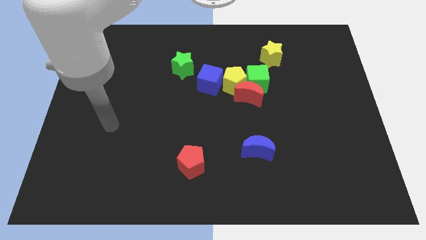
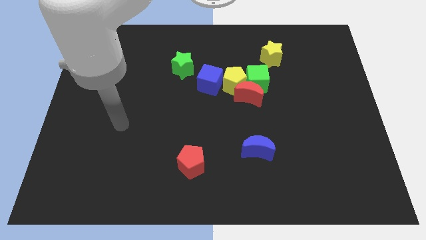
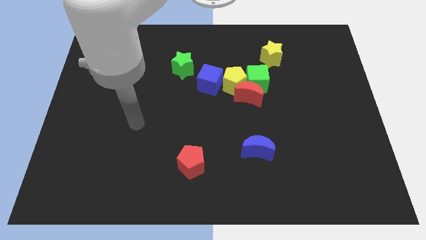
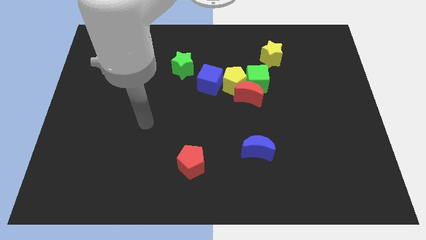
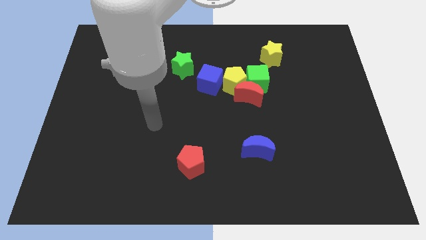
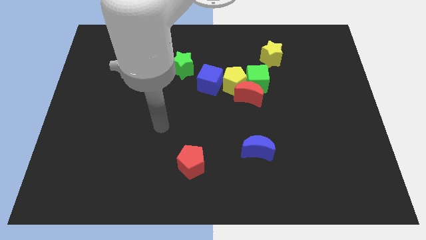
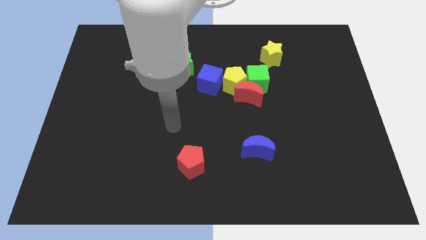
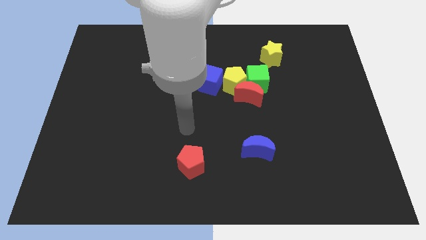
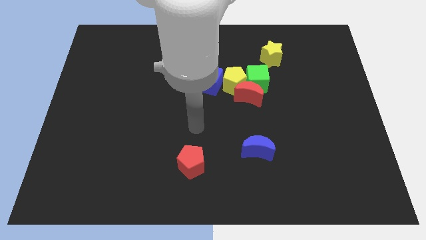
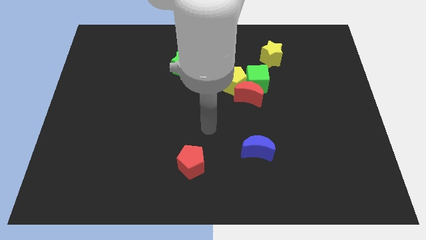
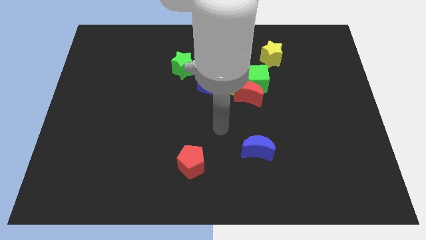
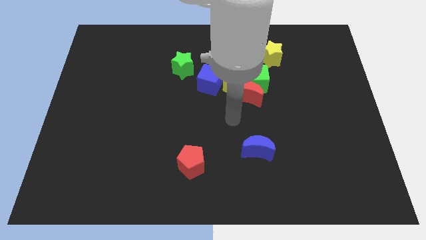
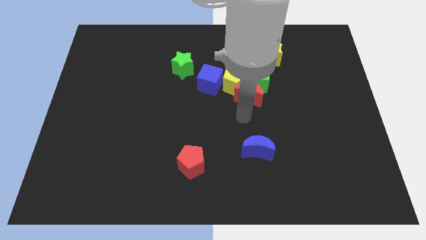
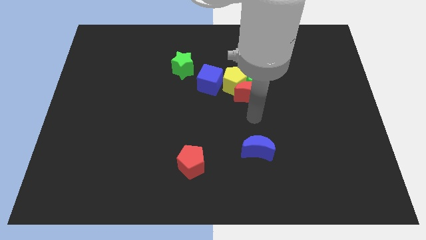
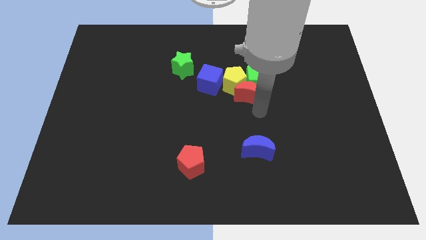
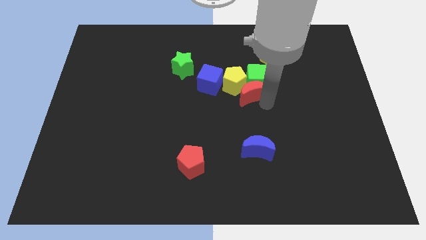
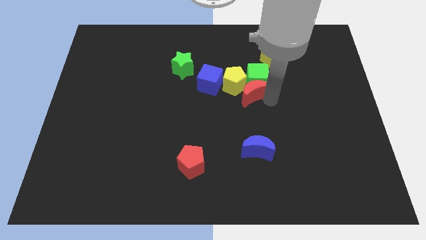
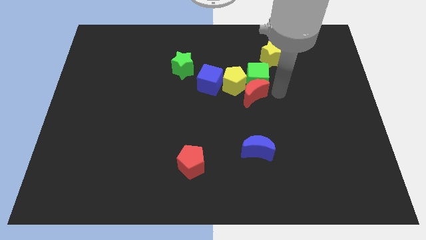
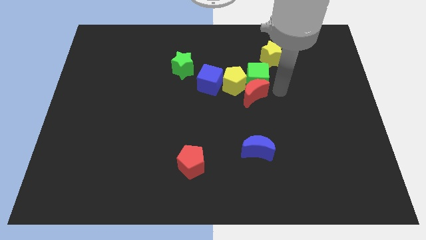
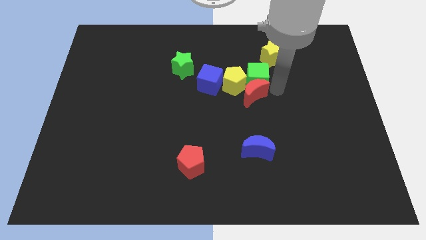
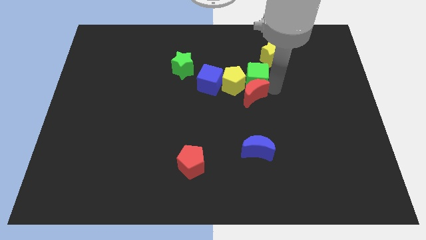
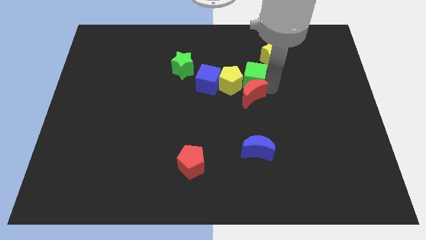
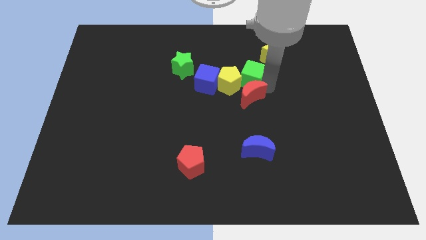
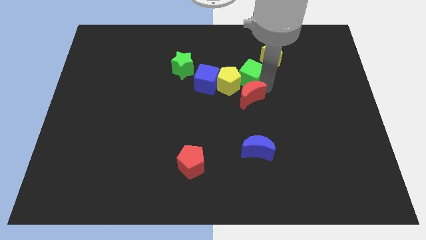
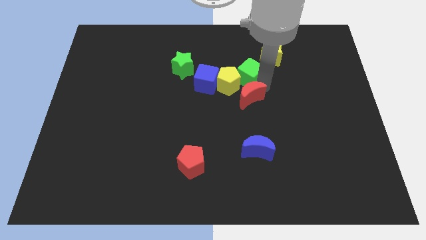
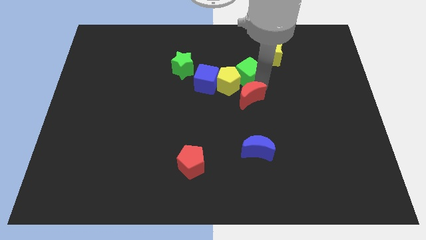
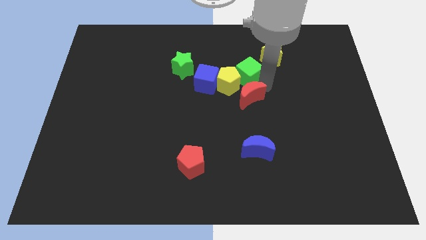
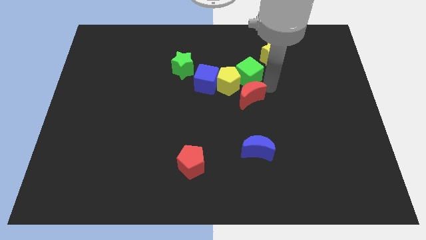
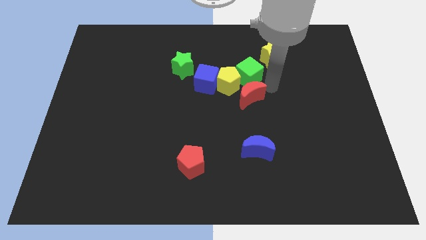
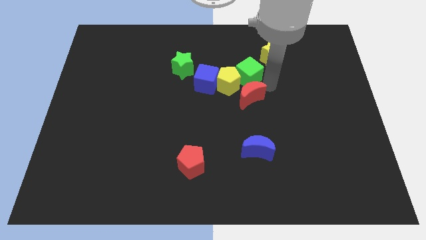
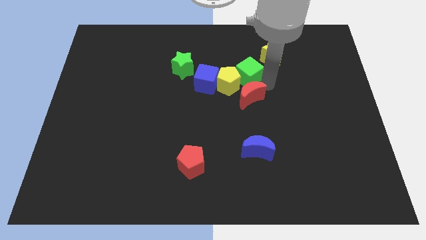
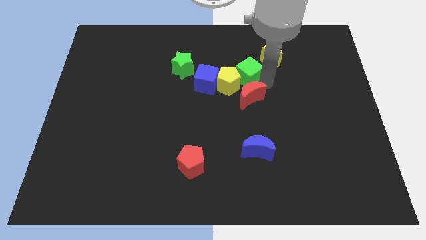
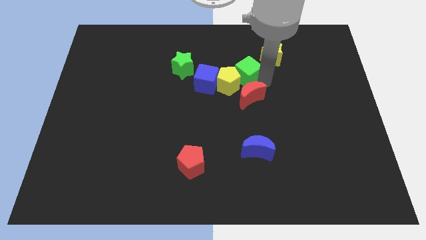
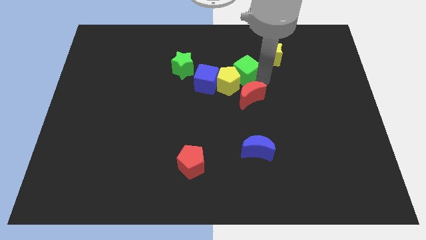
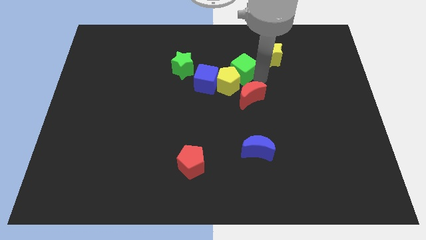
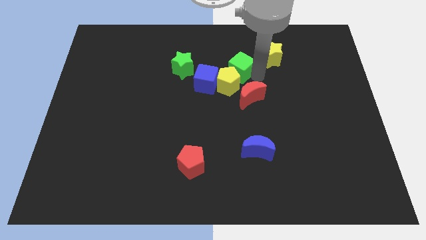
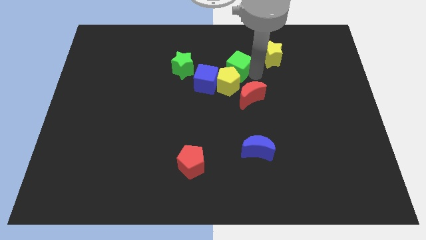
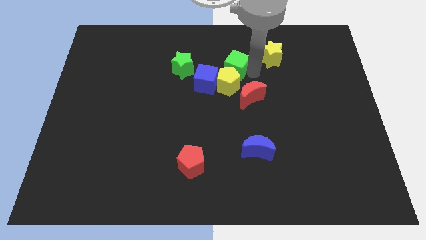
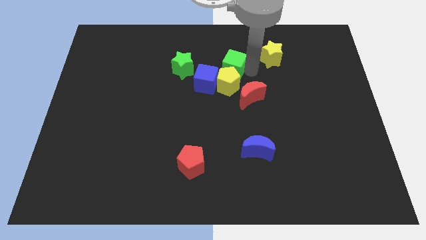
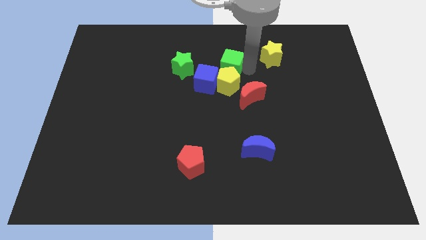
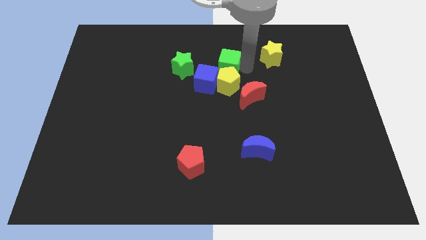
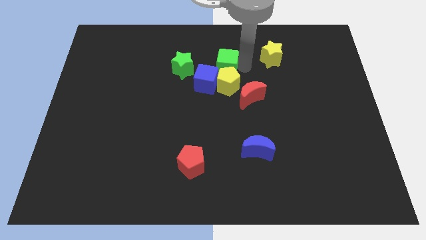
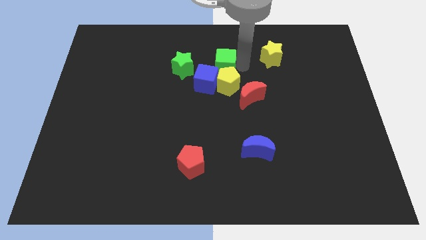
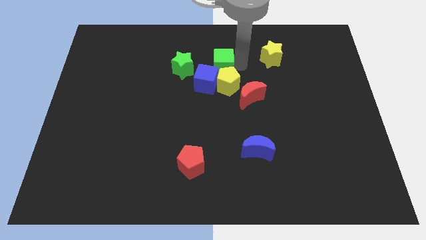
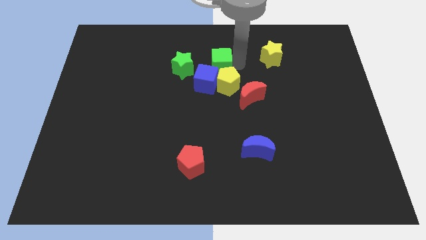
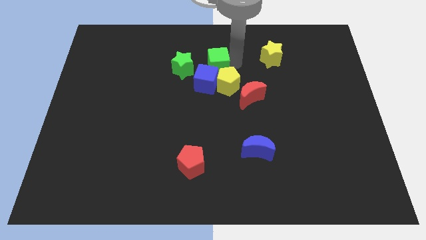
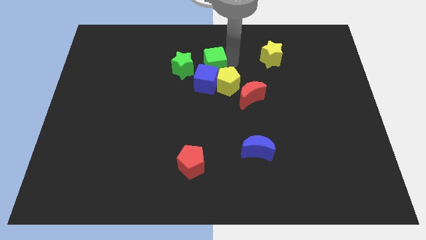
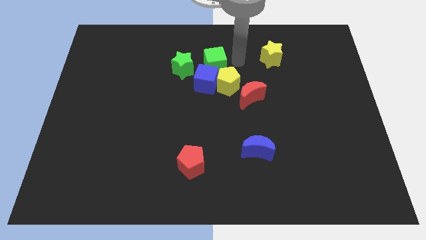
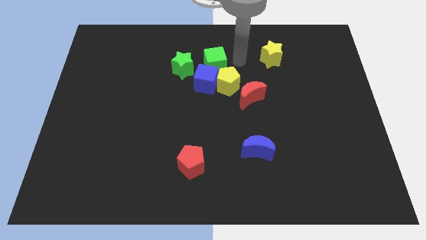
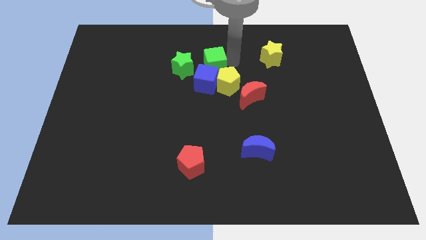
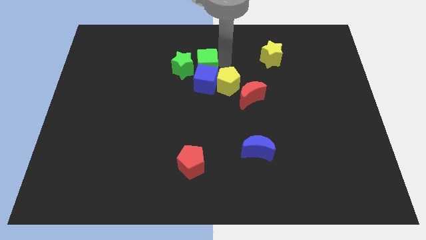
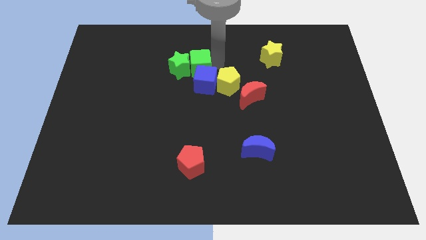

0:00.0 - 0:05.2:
move the green cube close to the green star

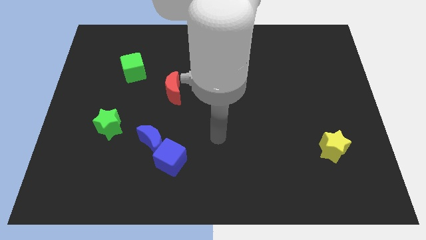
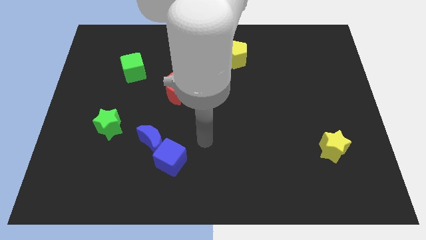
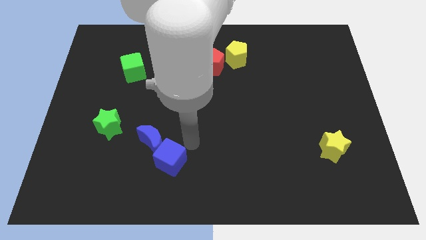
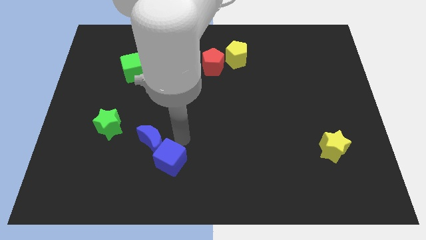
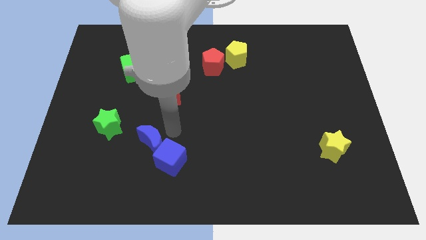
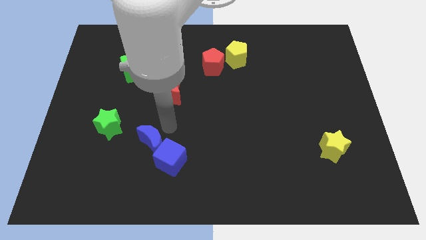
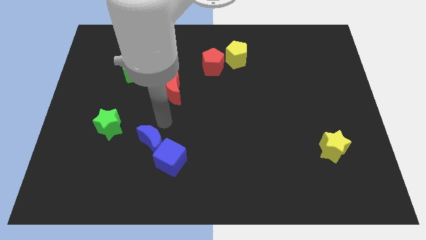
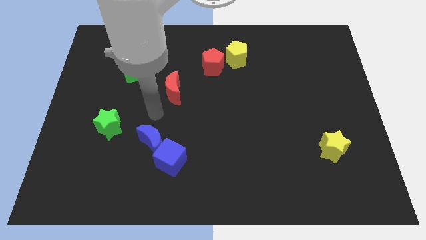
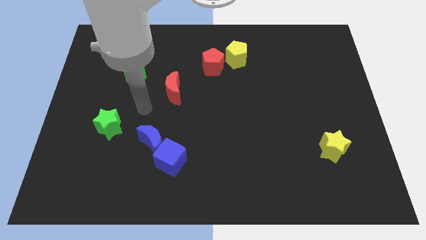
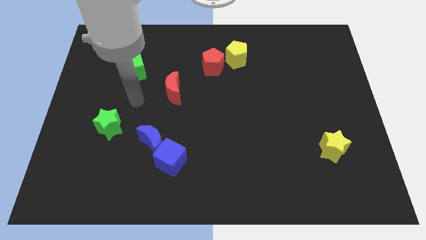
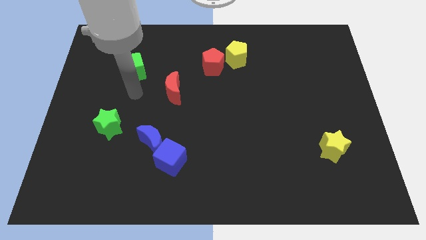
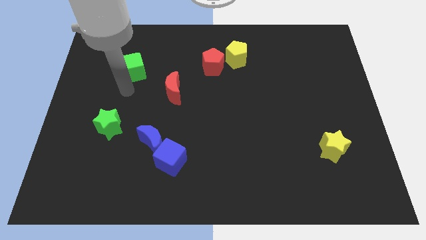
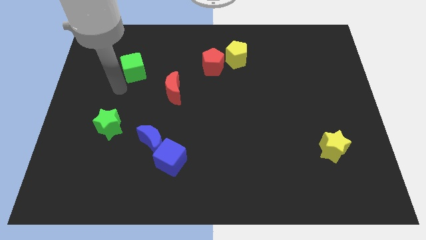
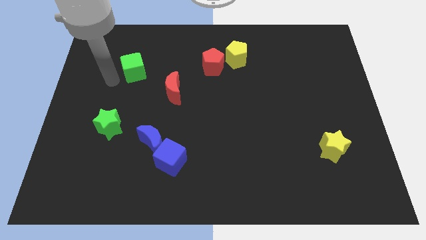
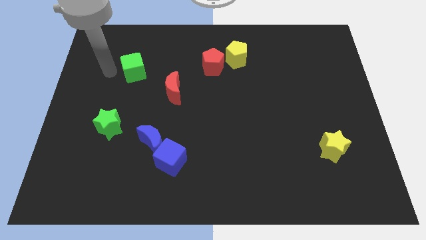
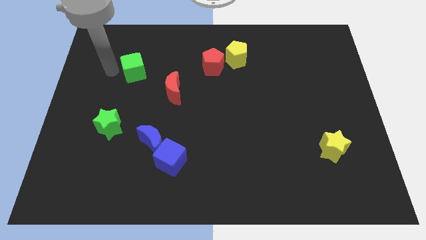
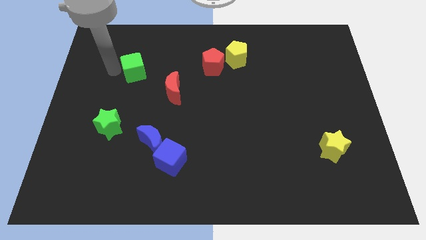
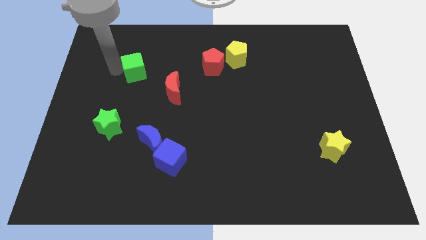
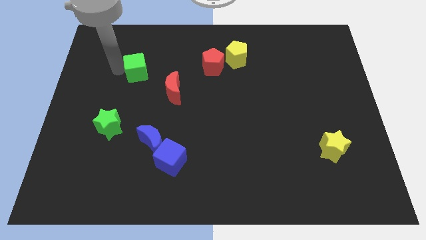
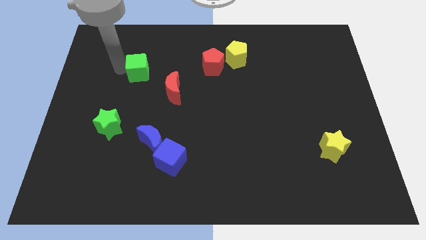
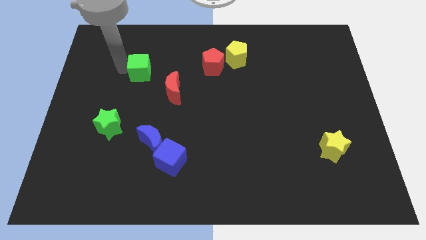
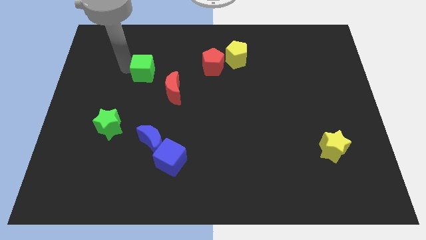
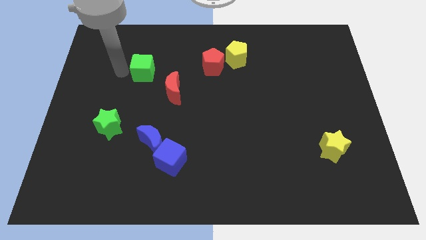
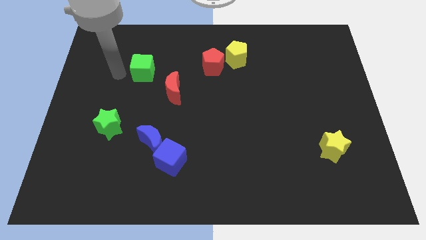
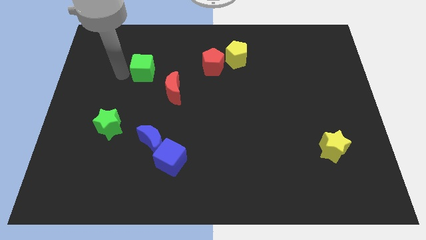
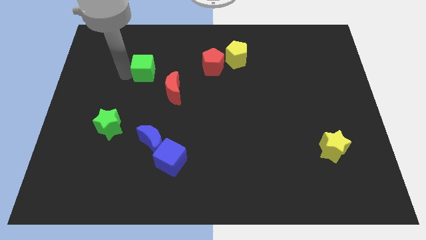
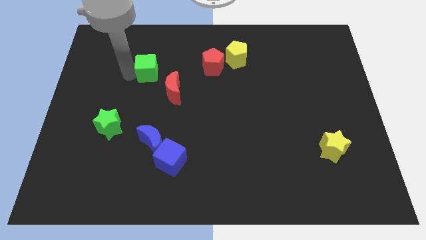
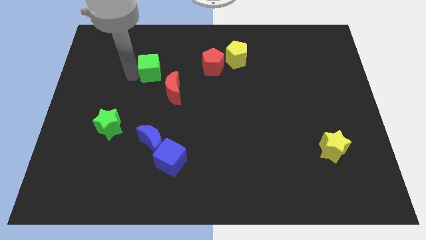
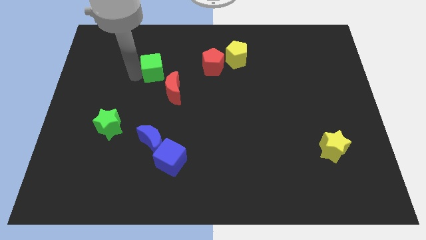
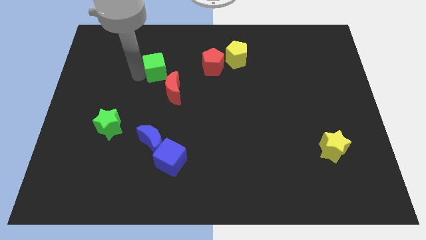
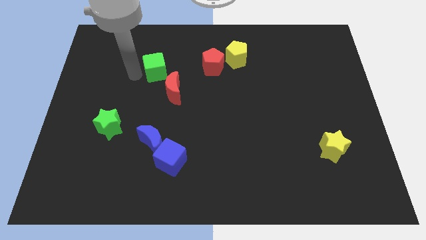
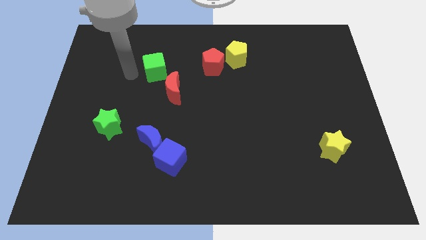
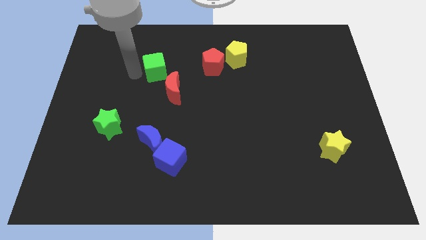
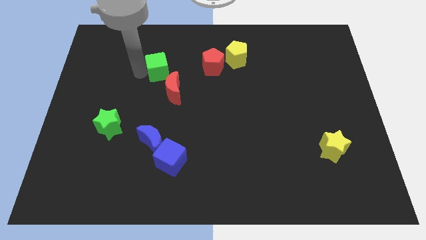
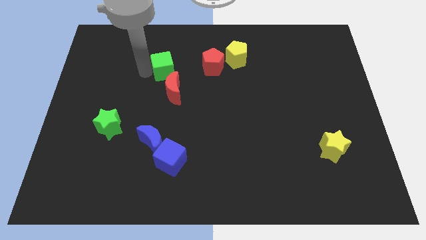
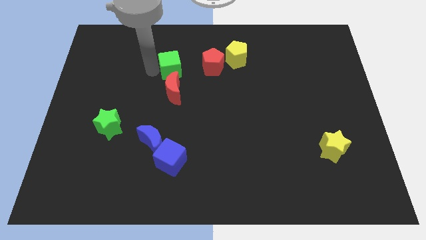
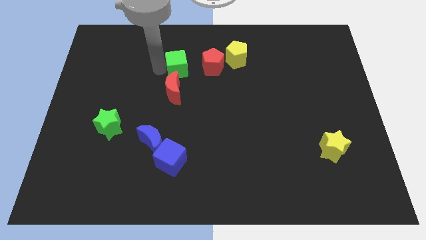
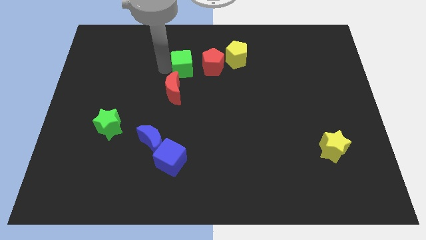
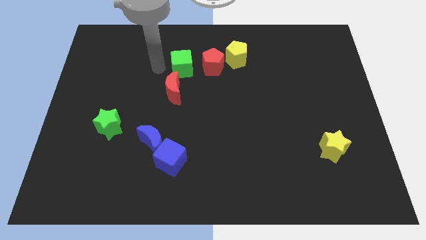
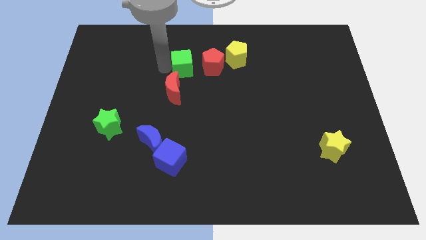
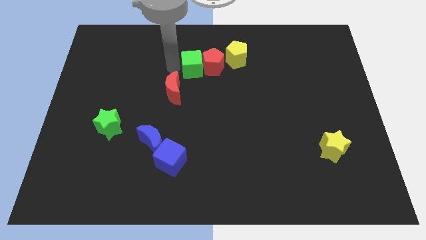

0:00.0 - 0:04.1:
put the green cube next to the red pentagon
